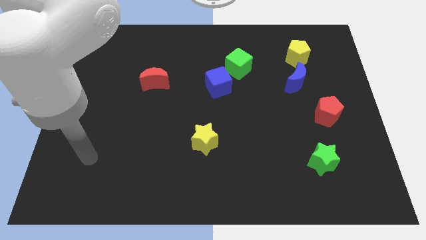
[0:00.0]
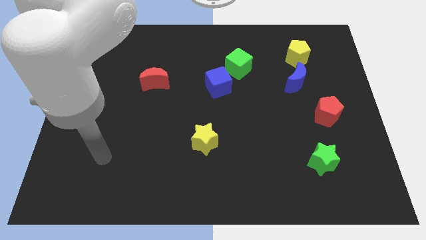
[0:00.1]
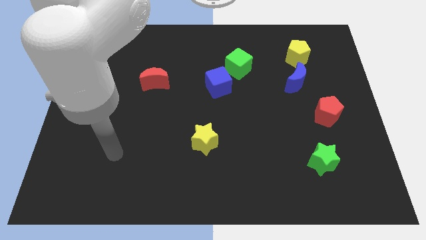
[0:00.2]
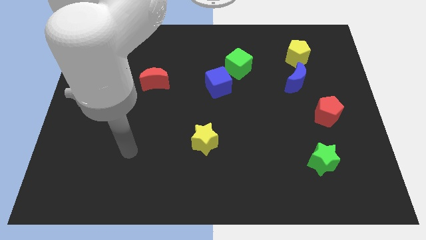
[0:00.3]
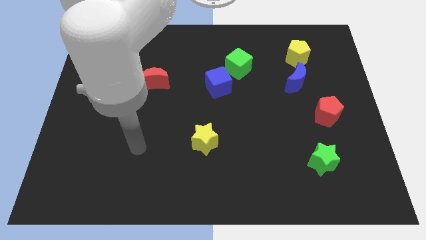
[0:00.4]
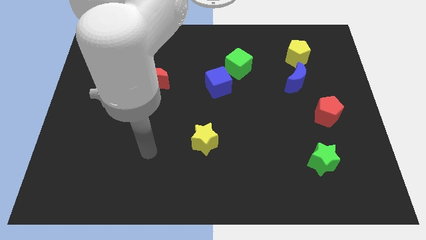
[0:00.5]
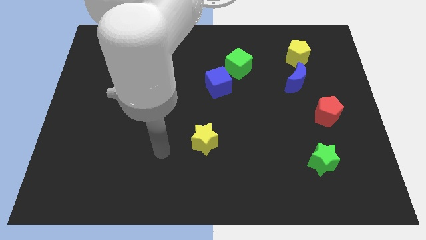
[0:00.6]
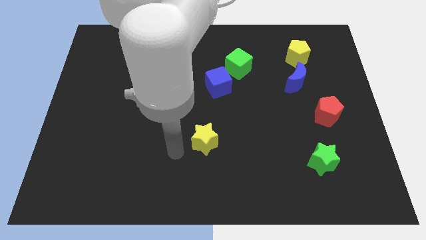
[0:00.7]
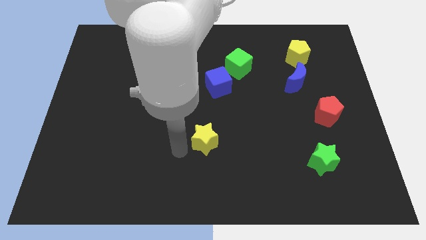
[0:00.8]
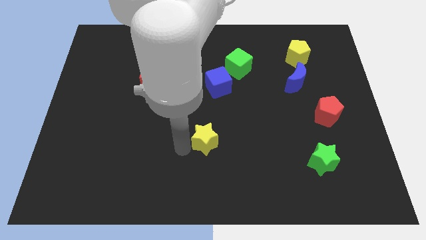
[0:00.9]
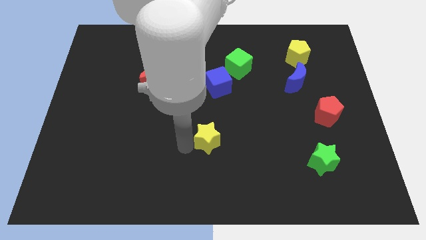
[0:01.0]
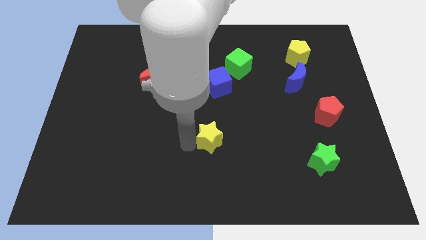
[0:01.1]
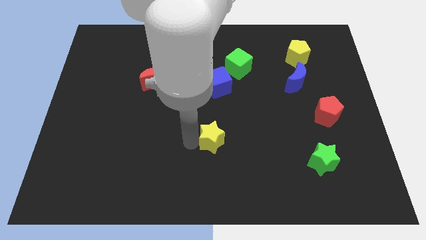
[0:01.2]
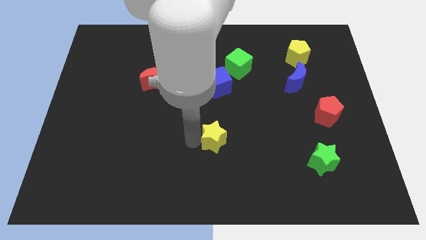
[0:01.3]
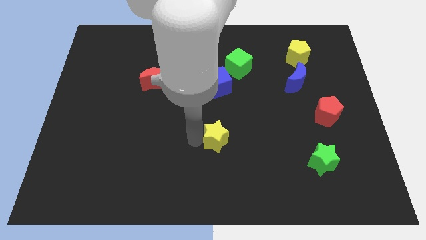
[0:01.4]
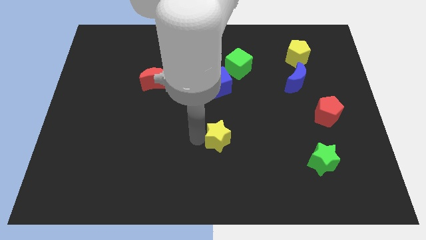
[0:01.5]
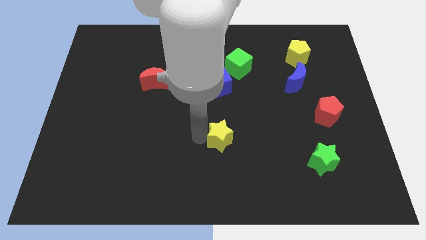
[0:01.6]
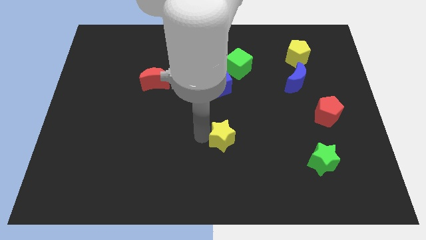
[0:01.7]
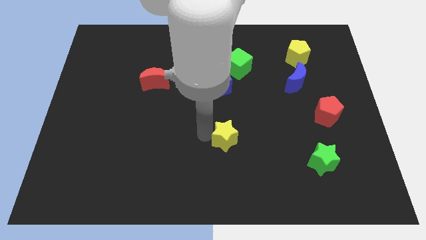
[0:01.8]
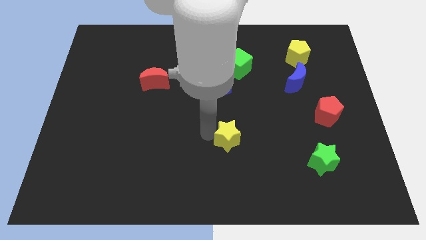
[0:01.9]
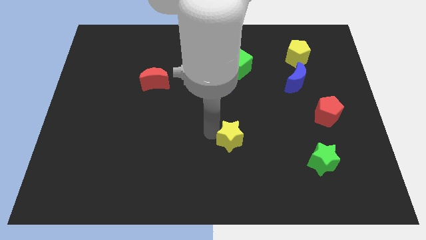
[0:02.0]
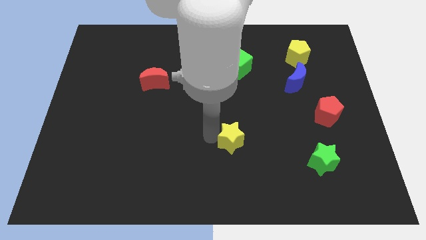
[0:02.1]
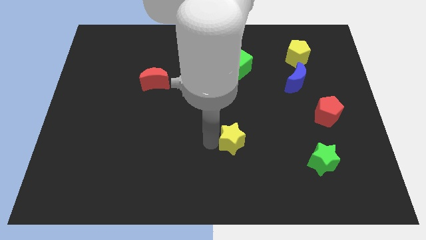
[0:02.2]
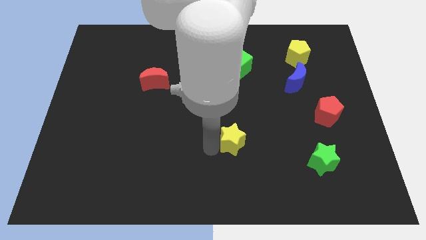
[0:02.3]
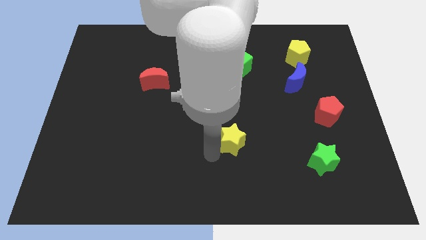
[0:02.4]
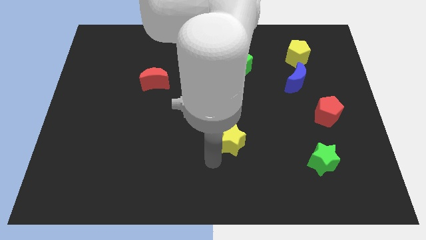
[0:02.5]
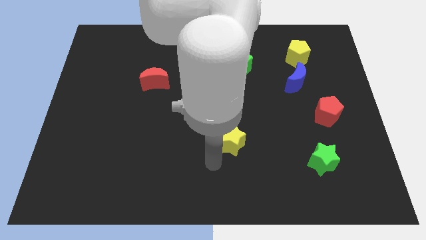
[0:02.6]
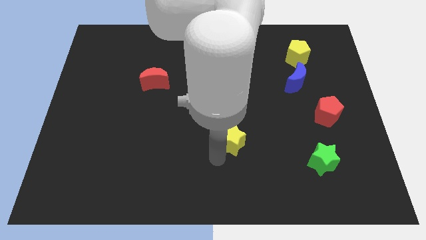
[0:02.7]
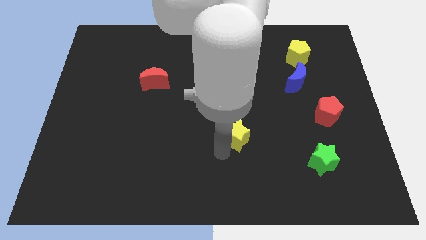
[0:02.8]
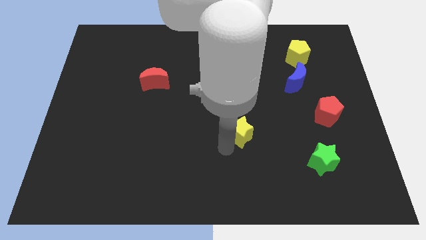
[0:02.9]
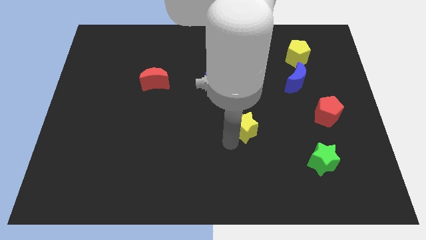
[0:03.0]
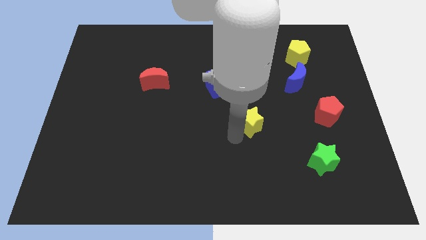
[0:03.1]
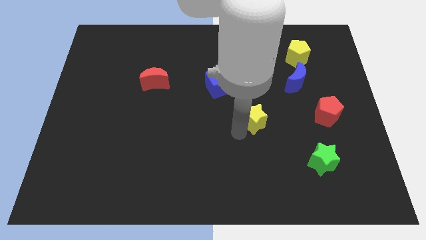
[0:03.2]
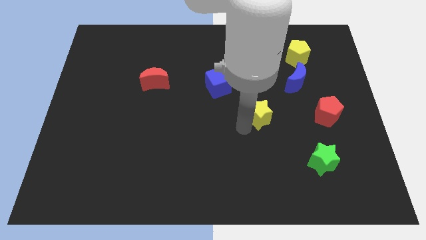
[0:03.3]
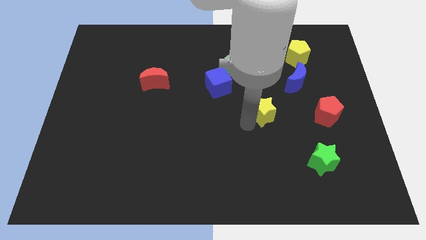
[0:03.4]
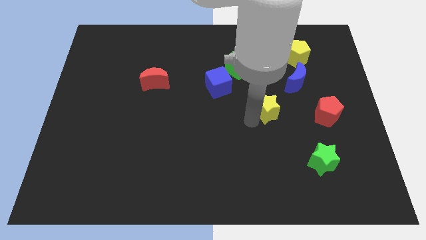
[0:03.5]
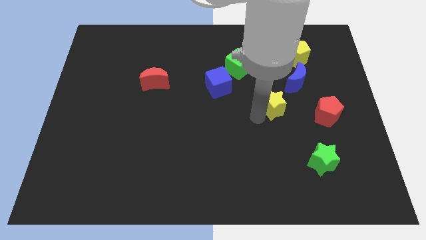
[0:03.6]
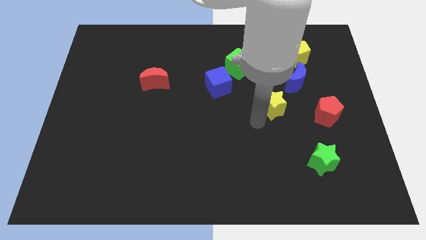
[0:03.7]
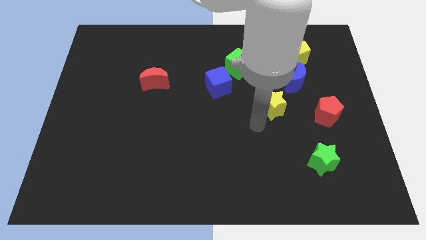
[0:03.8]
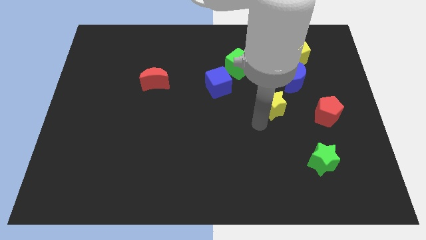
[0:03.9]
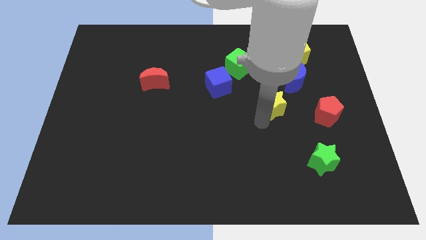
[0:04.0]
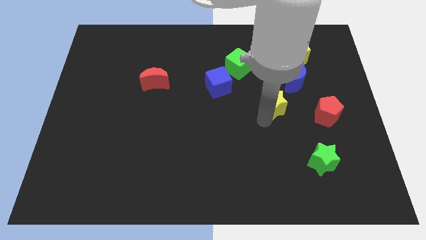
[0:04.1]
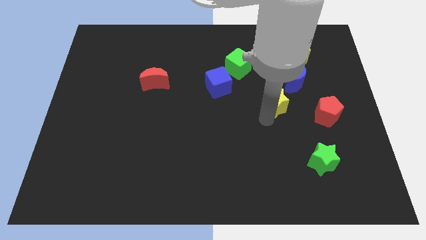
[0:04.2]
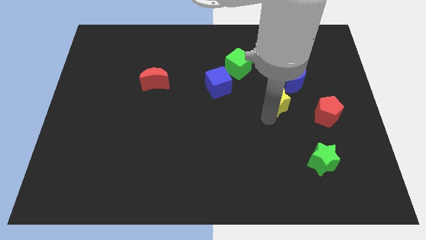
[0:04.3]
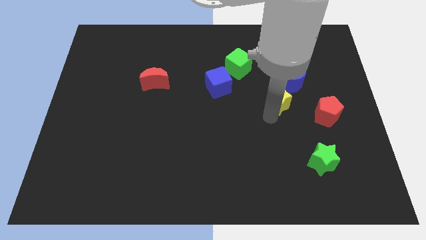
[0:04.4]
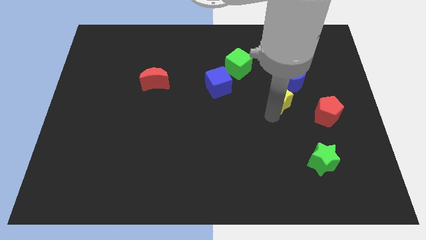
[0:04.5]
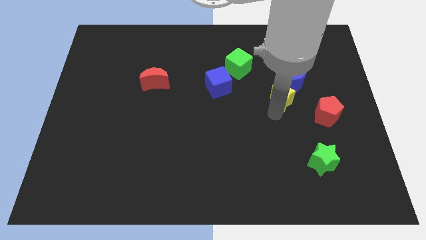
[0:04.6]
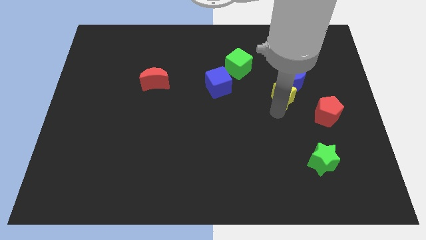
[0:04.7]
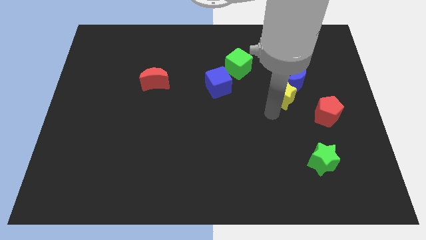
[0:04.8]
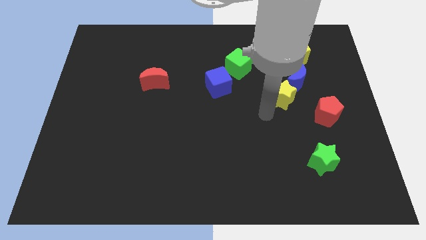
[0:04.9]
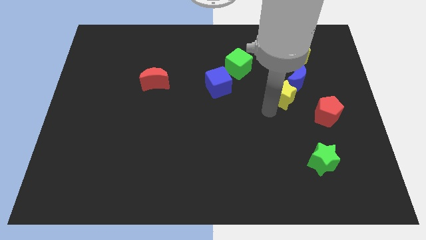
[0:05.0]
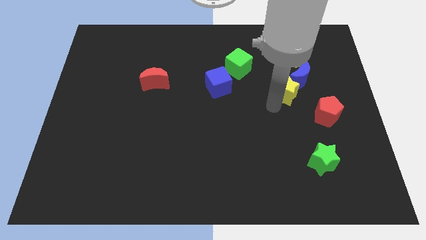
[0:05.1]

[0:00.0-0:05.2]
slide the yellow star to the blue moon

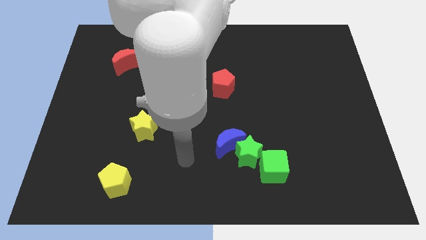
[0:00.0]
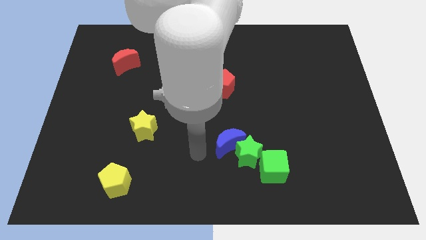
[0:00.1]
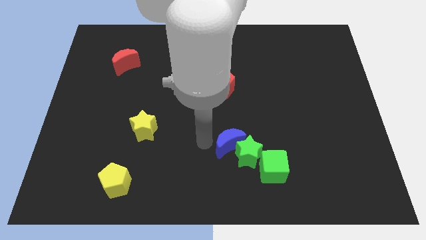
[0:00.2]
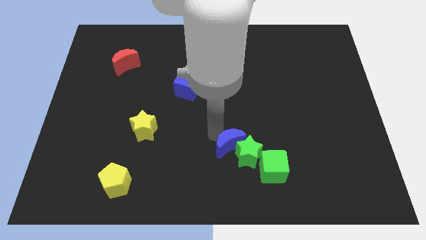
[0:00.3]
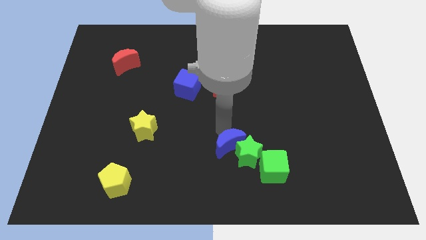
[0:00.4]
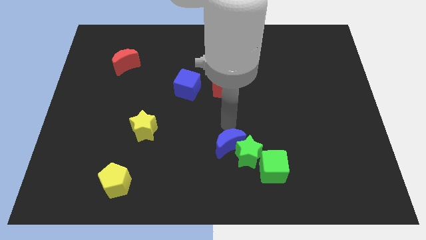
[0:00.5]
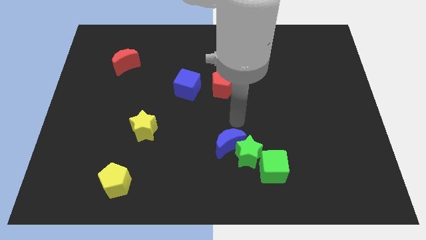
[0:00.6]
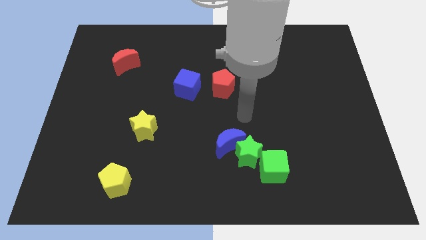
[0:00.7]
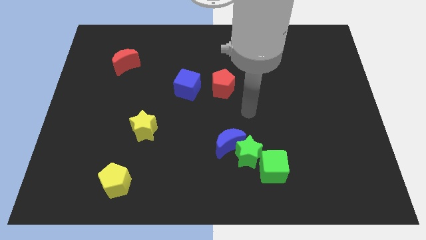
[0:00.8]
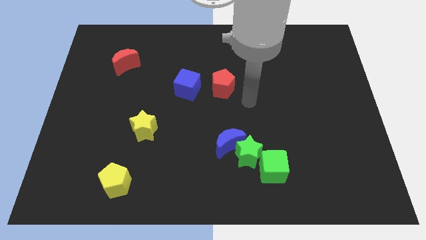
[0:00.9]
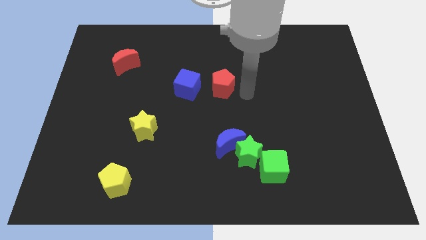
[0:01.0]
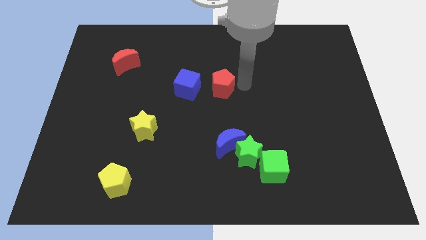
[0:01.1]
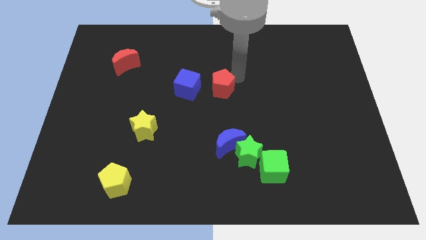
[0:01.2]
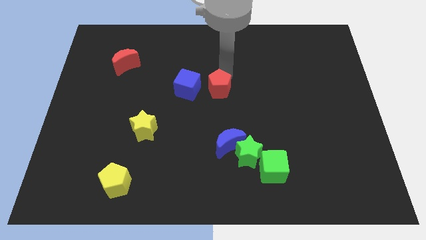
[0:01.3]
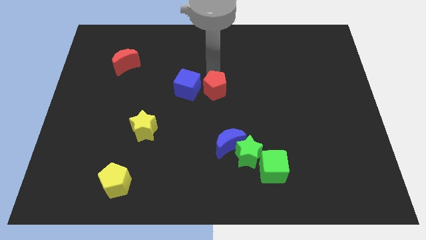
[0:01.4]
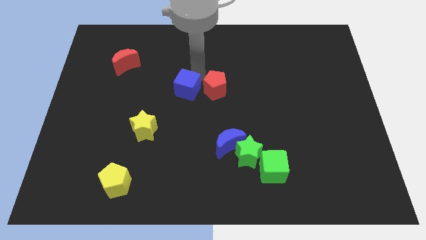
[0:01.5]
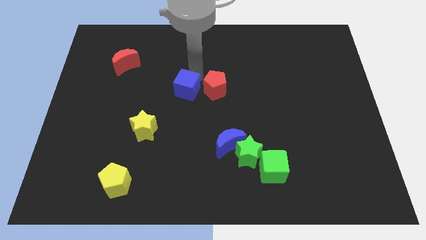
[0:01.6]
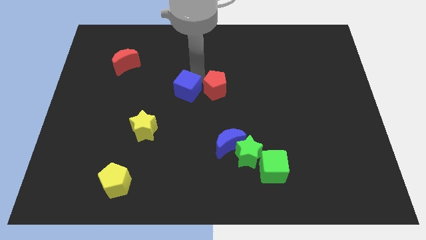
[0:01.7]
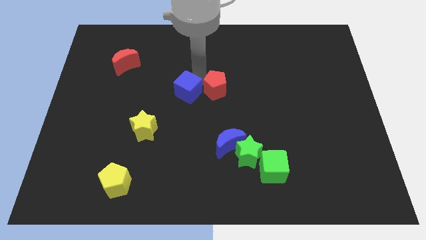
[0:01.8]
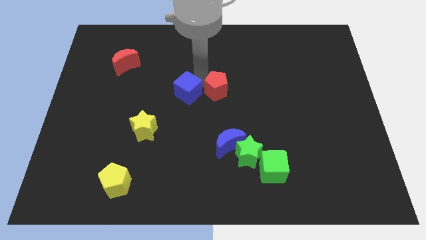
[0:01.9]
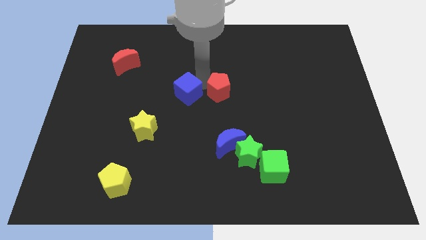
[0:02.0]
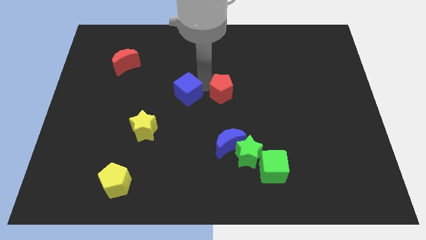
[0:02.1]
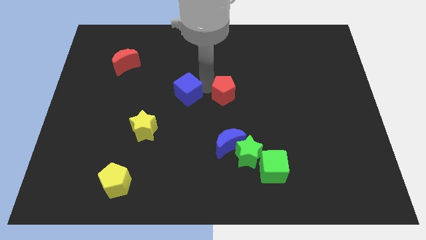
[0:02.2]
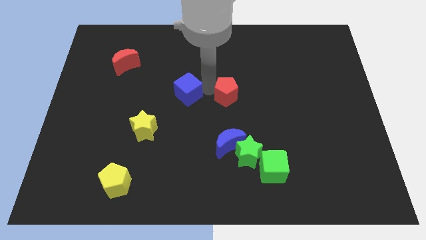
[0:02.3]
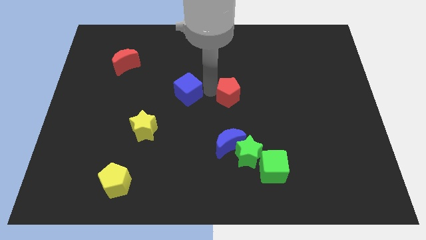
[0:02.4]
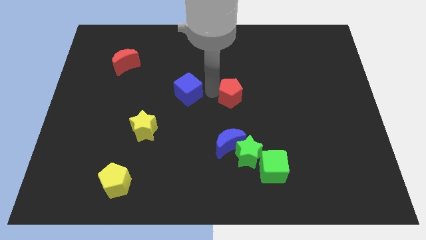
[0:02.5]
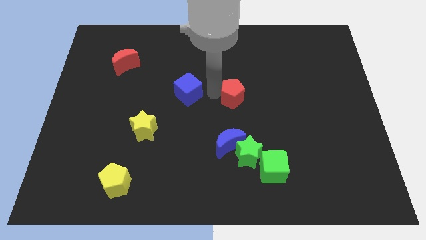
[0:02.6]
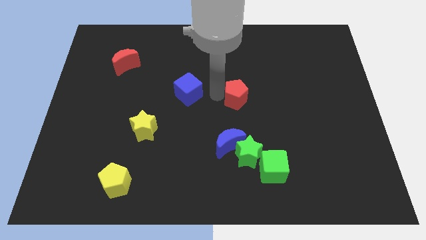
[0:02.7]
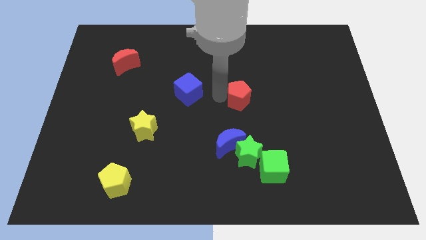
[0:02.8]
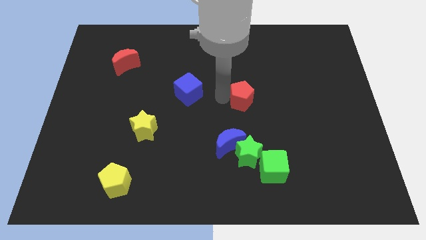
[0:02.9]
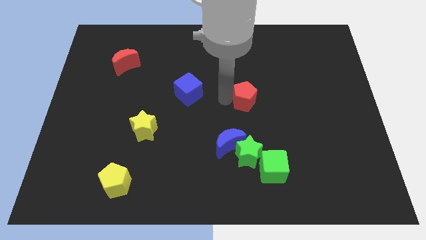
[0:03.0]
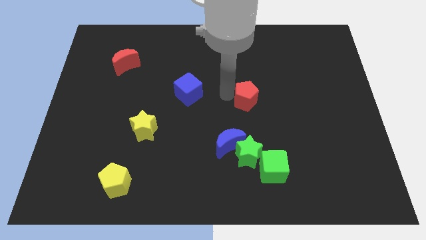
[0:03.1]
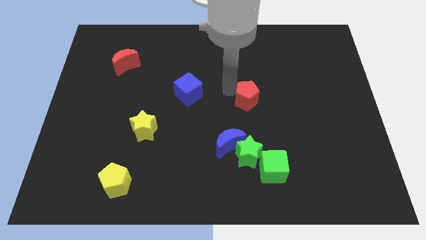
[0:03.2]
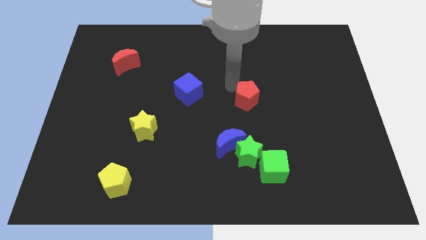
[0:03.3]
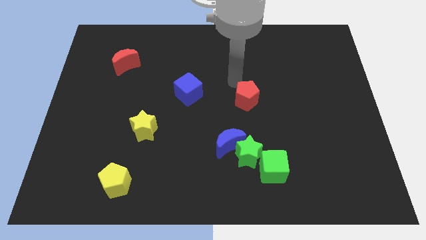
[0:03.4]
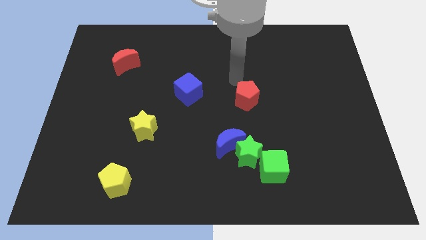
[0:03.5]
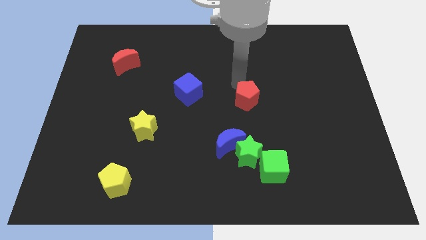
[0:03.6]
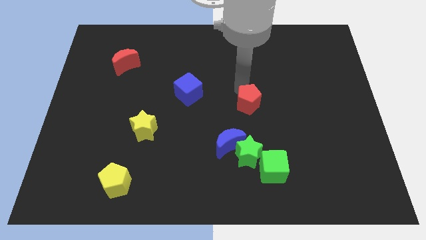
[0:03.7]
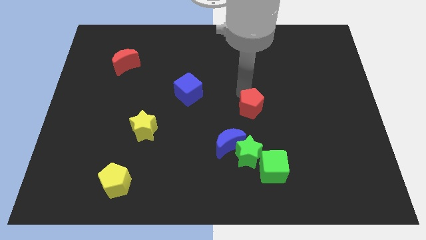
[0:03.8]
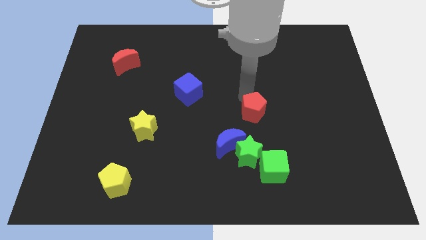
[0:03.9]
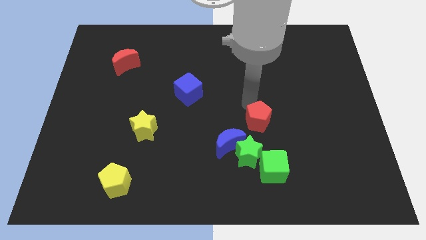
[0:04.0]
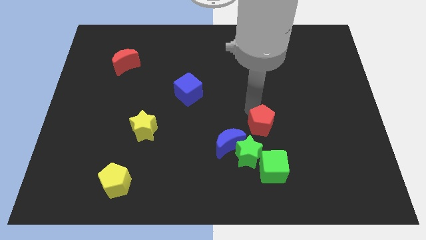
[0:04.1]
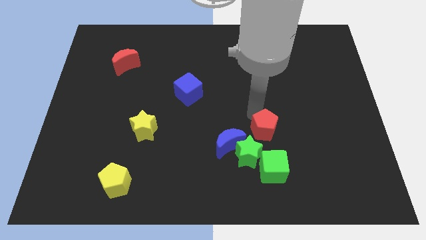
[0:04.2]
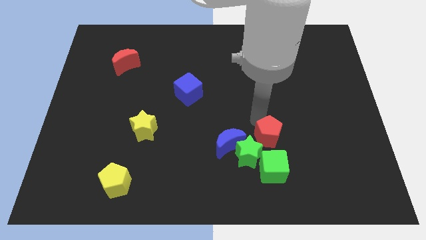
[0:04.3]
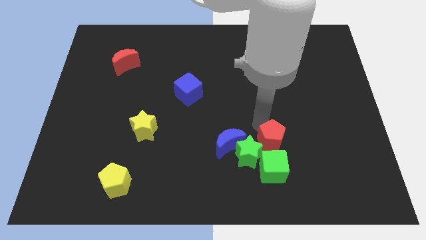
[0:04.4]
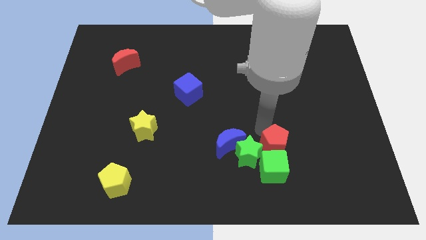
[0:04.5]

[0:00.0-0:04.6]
slide the red pentagon towards the green cube
